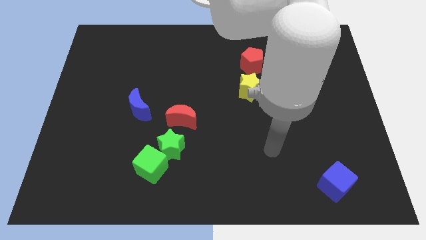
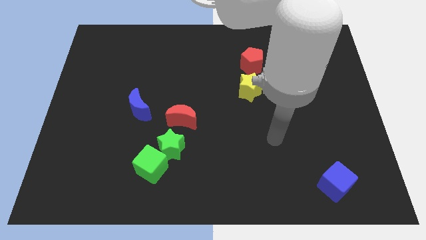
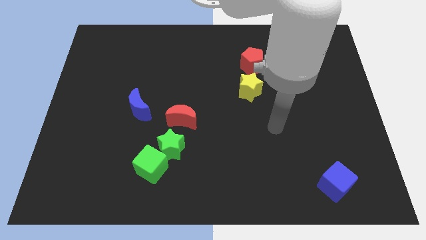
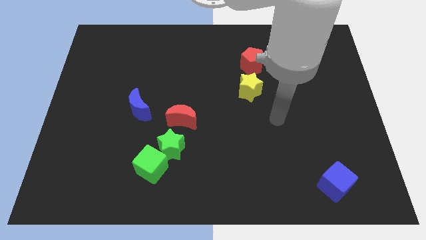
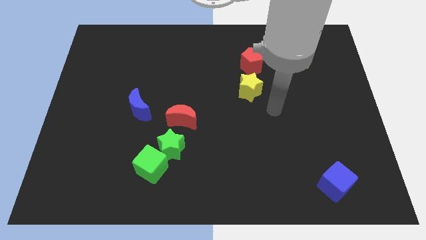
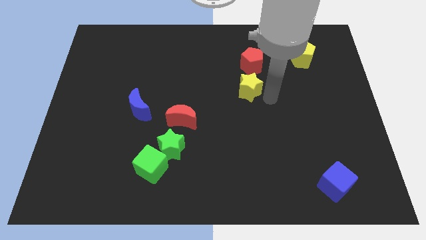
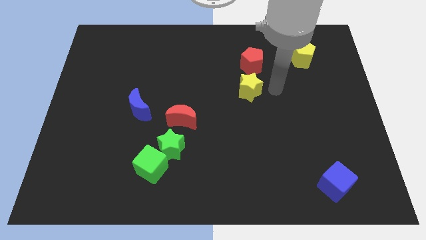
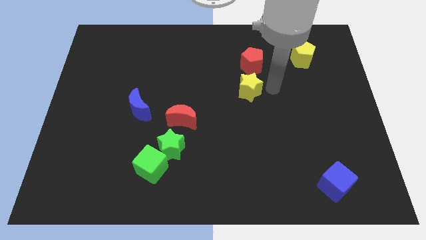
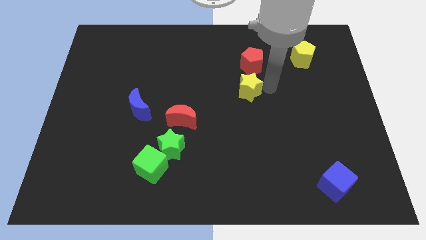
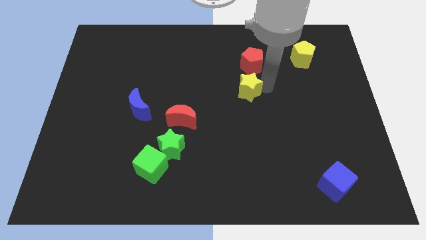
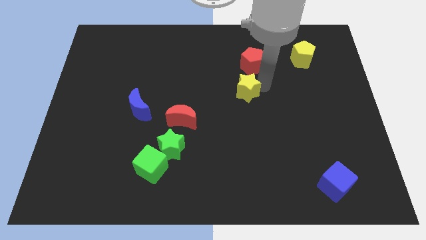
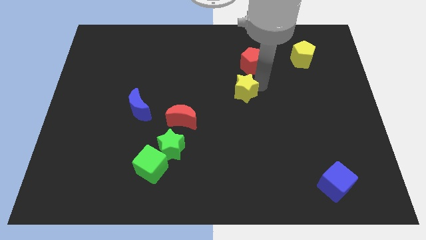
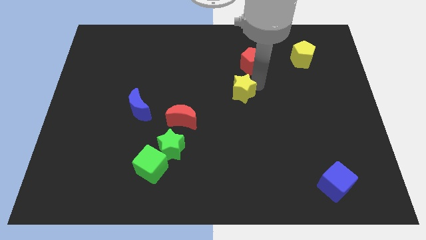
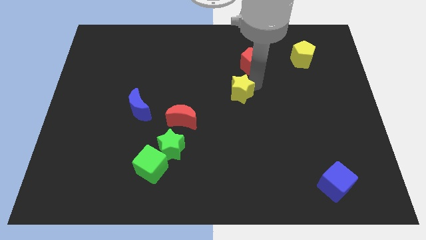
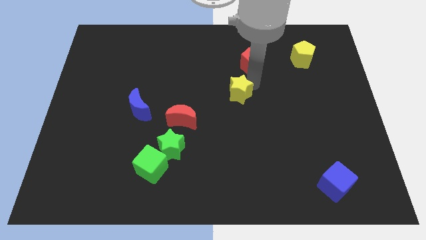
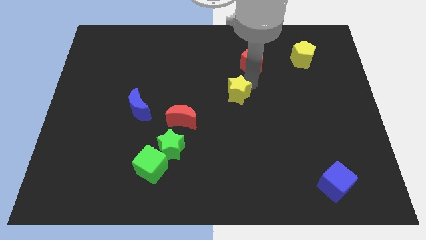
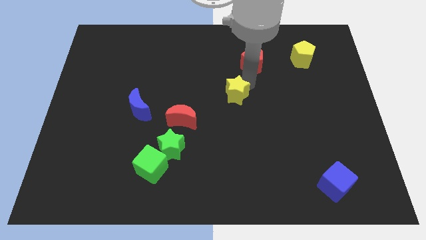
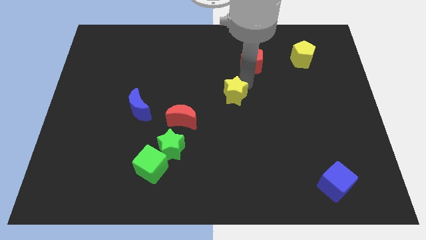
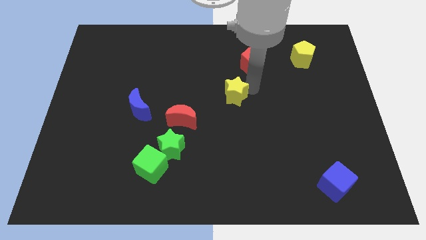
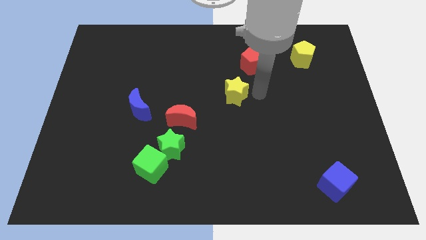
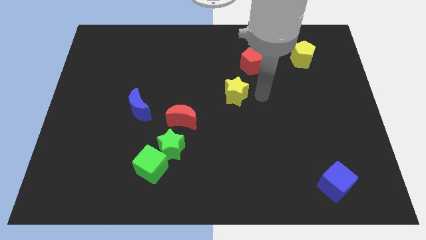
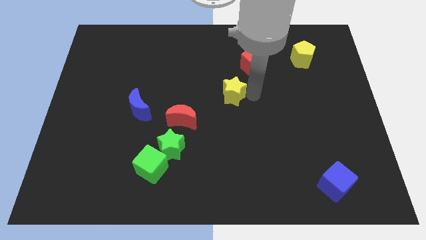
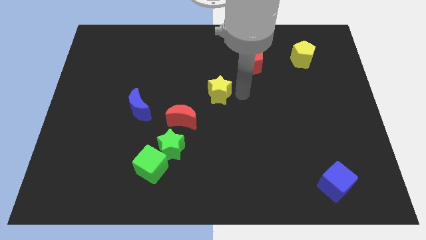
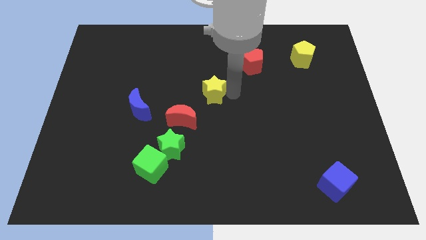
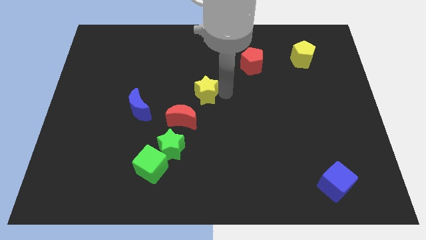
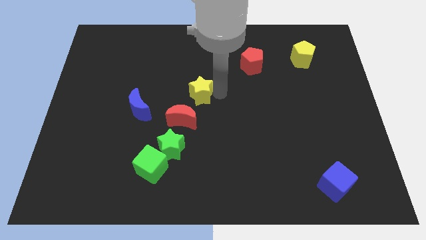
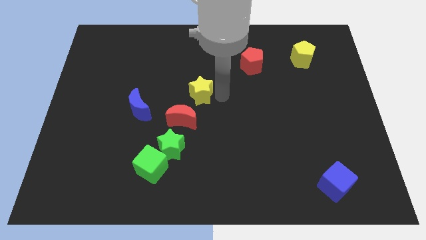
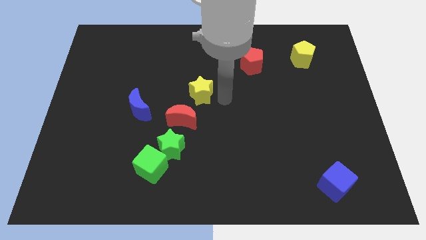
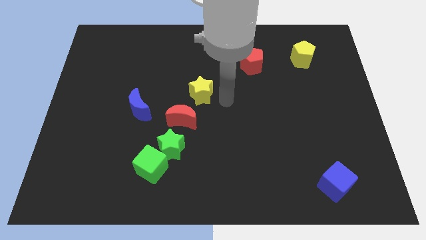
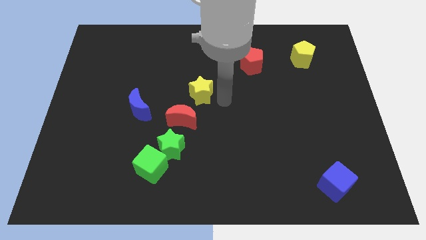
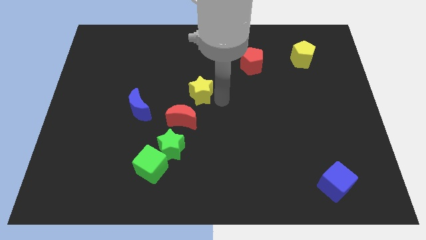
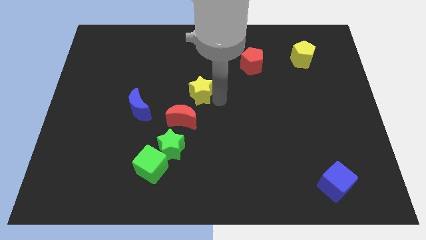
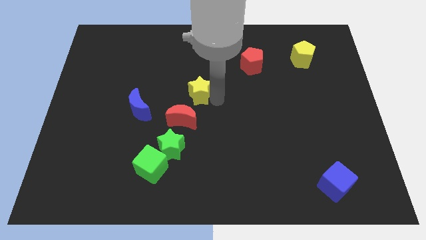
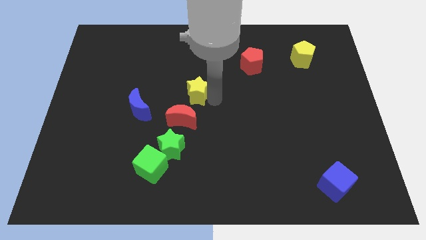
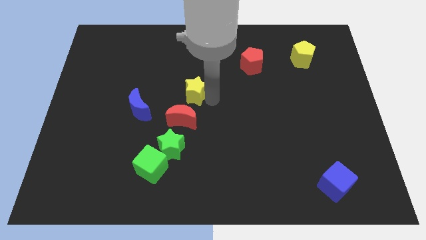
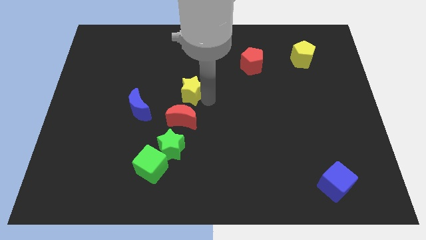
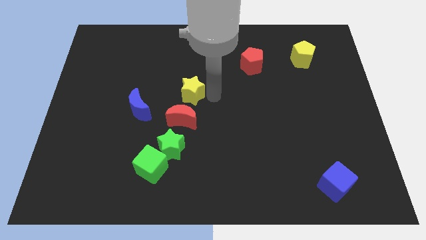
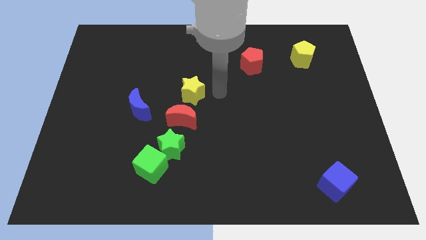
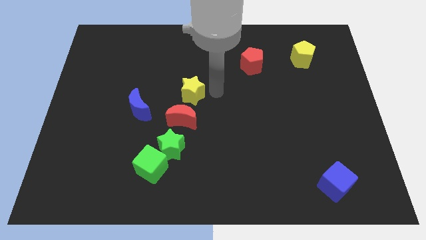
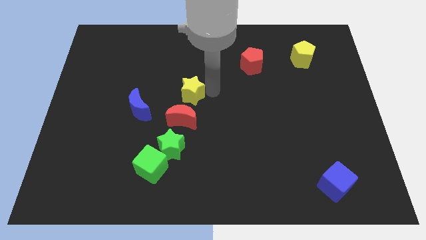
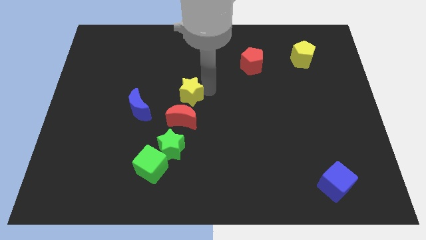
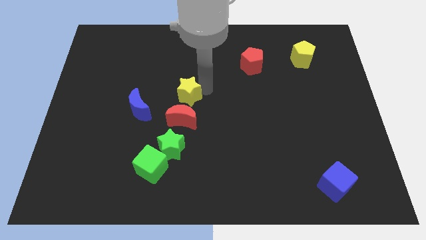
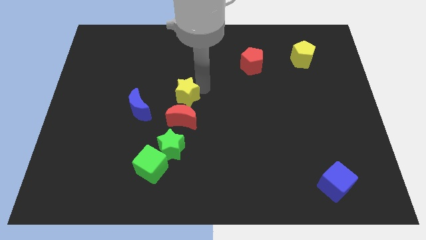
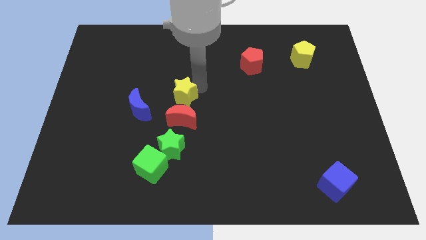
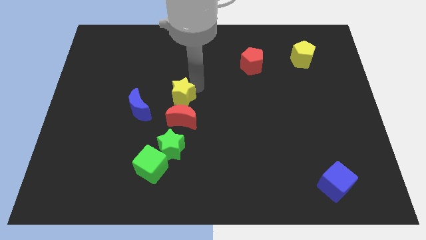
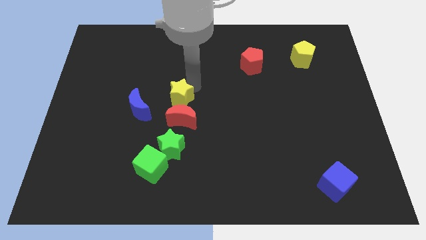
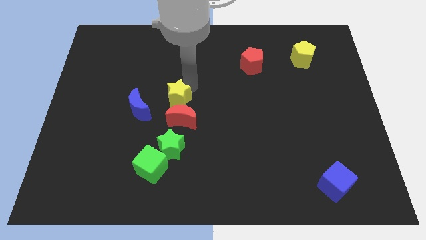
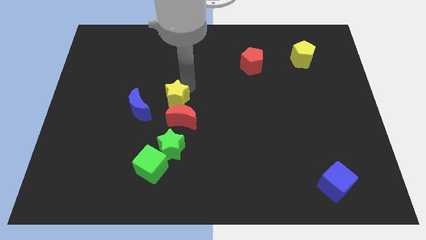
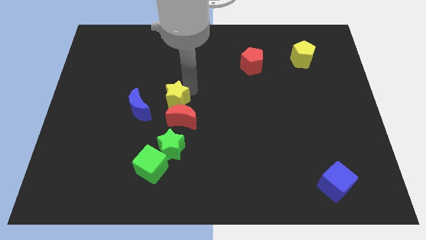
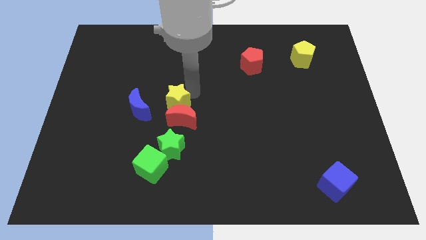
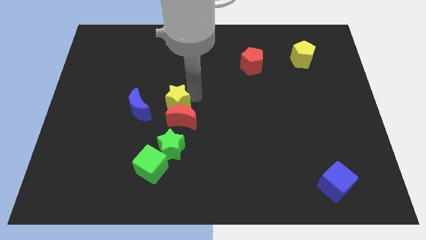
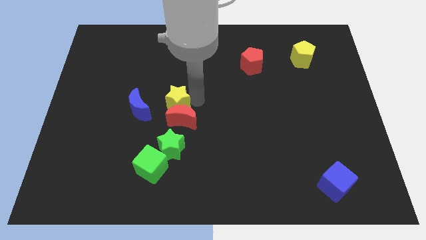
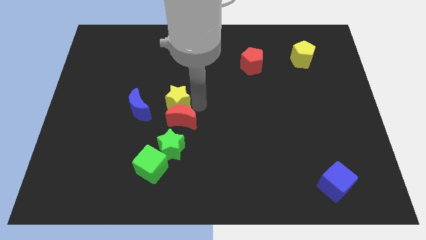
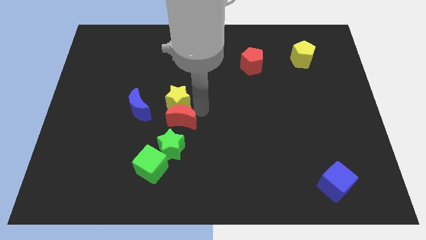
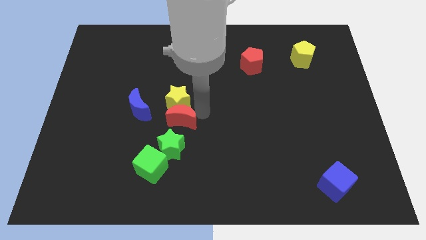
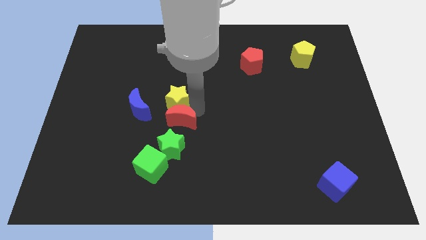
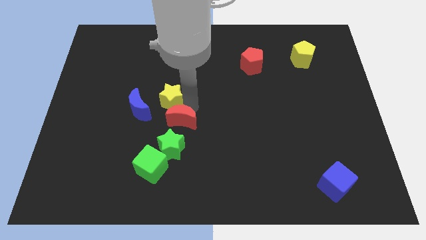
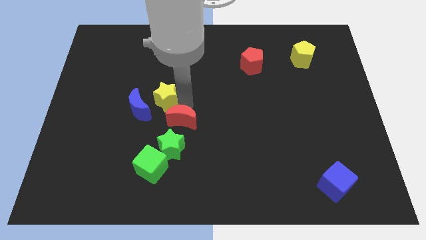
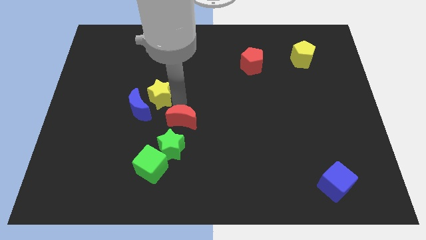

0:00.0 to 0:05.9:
slide the yellow star to the left

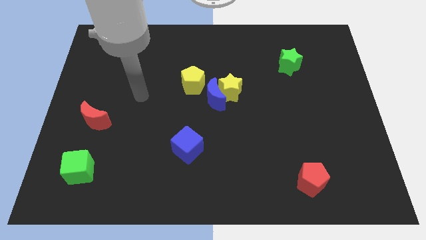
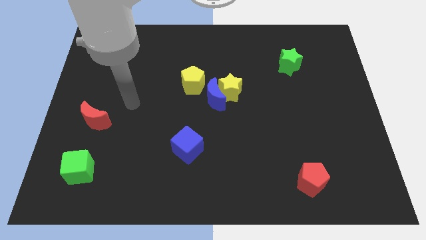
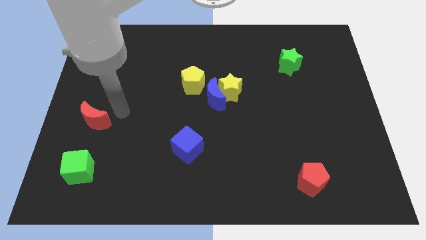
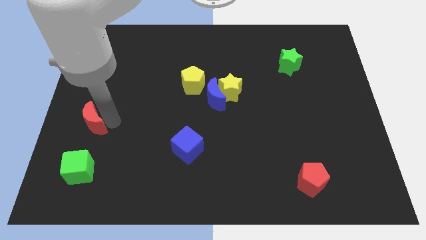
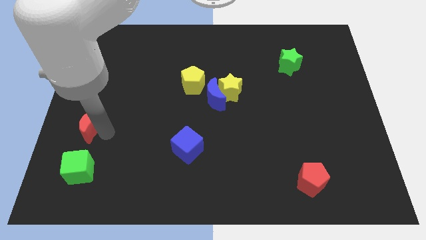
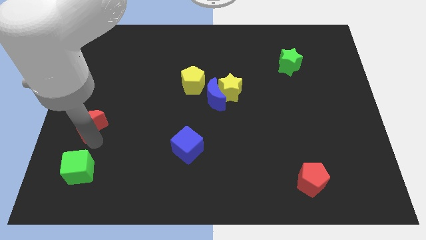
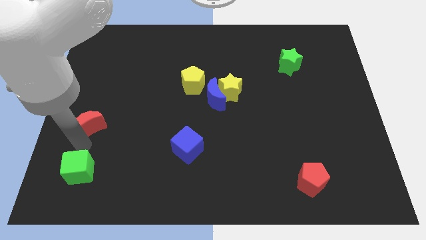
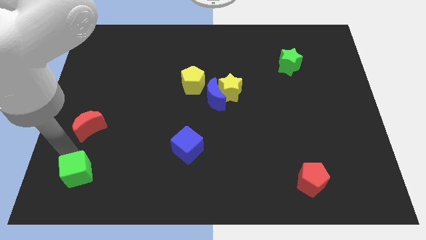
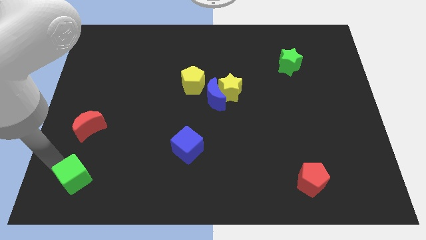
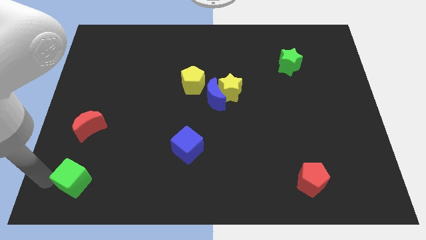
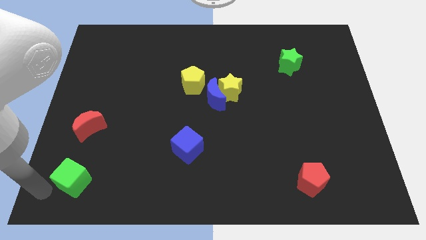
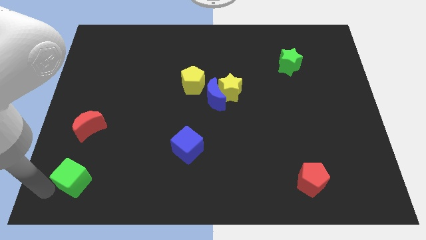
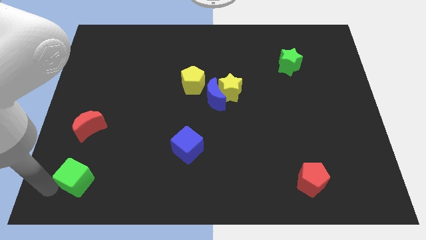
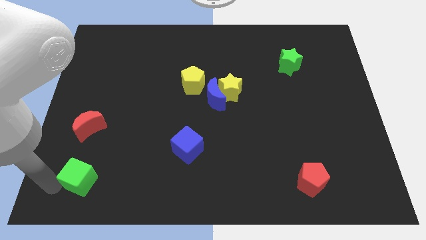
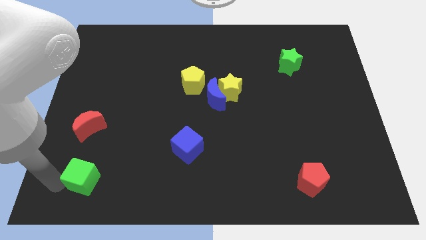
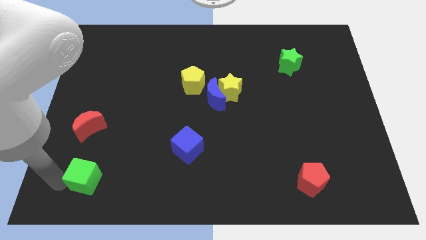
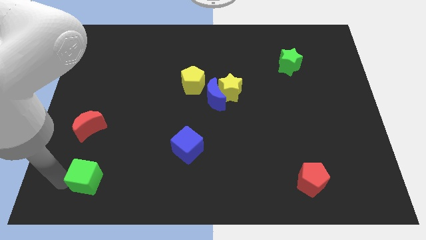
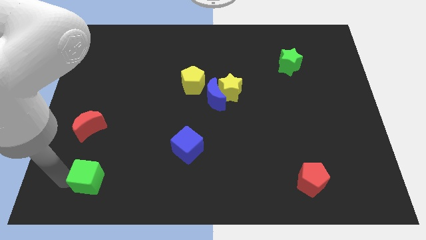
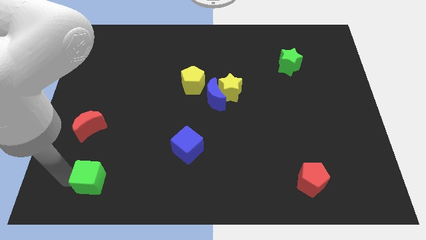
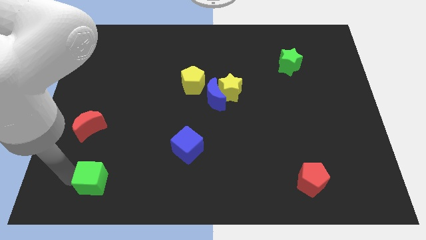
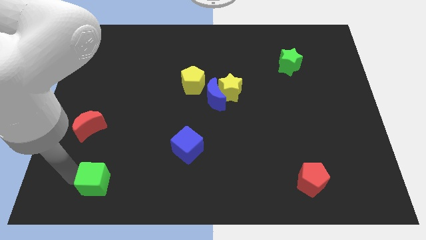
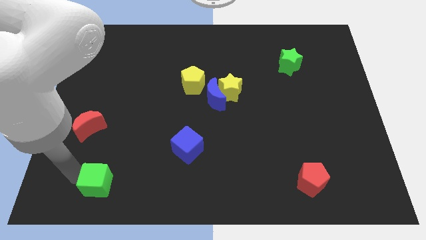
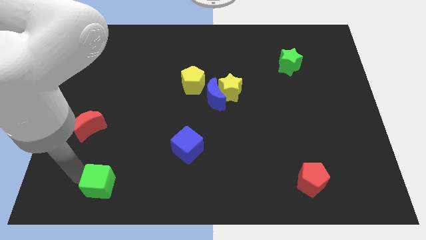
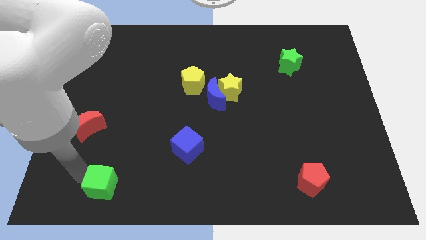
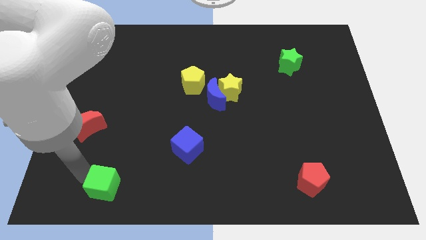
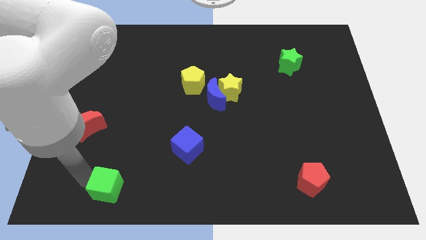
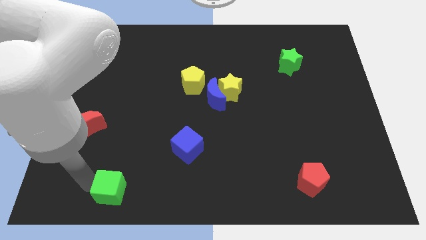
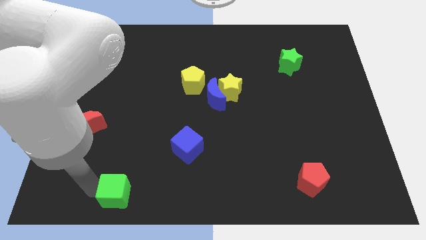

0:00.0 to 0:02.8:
slightly push the green cube right
